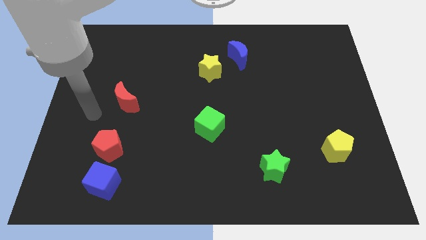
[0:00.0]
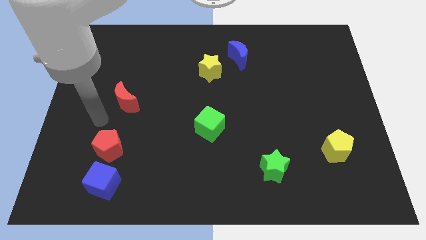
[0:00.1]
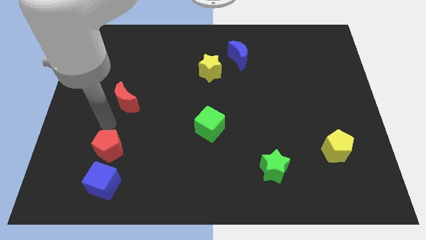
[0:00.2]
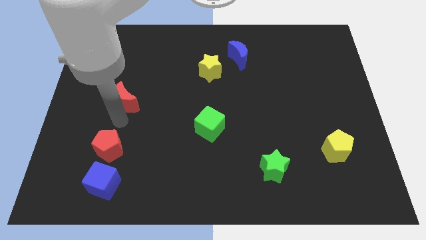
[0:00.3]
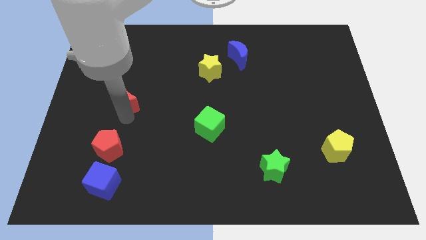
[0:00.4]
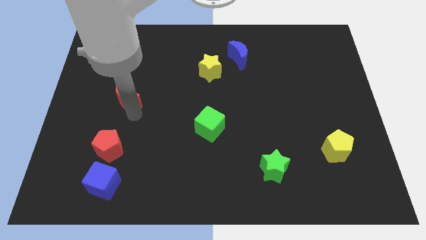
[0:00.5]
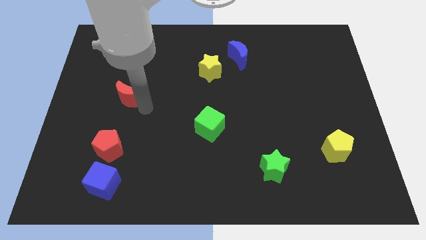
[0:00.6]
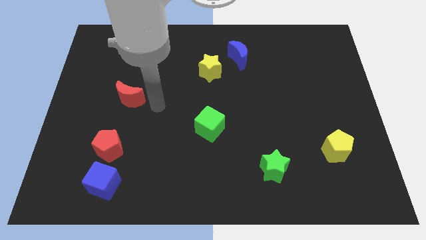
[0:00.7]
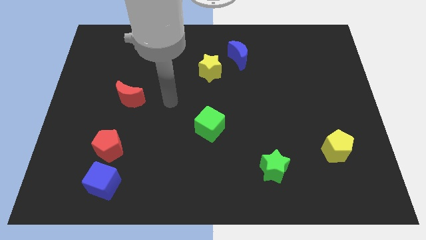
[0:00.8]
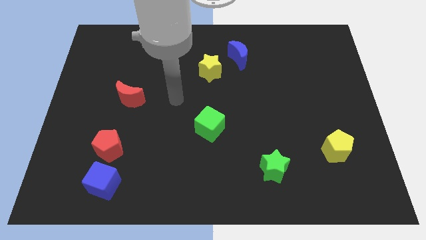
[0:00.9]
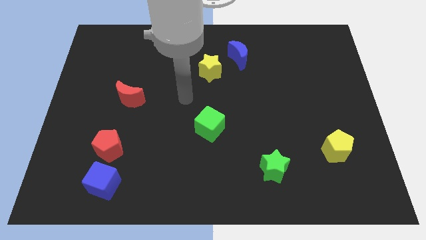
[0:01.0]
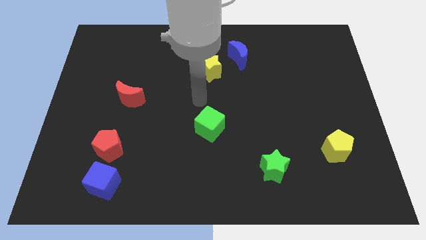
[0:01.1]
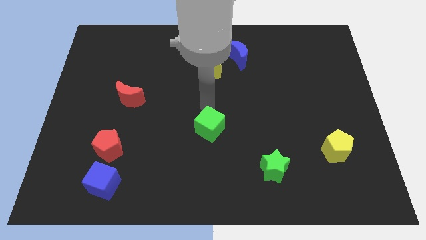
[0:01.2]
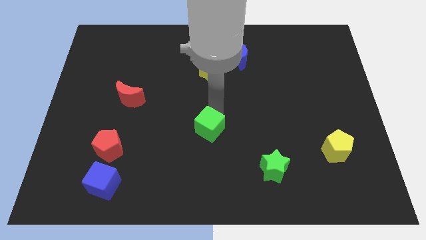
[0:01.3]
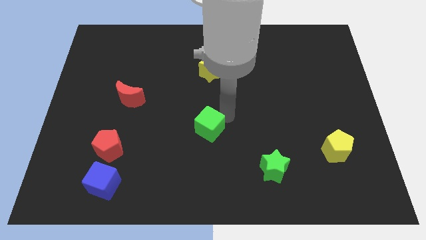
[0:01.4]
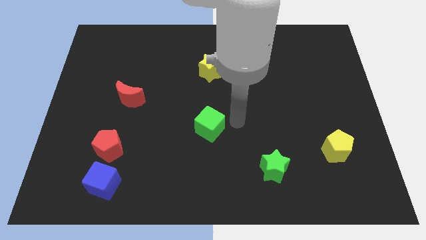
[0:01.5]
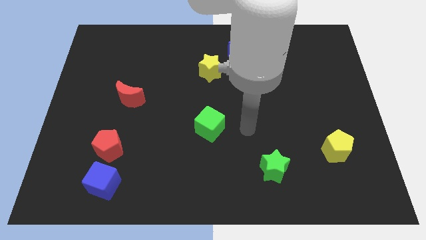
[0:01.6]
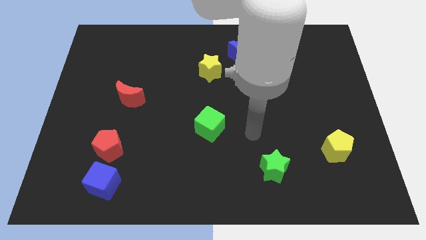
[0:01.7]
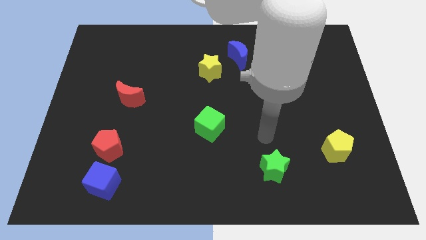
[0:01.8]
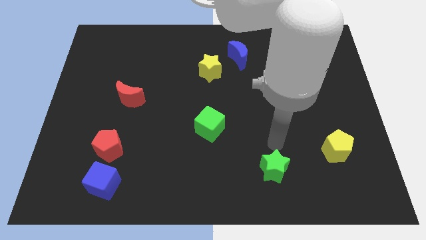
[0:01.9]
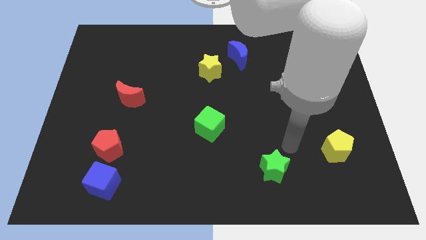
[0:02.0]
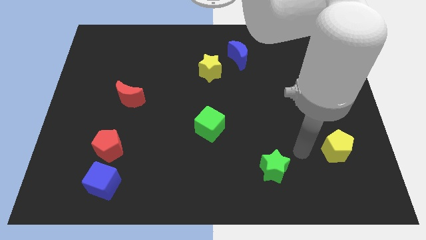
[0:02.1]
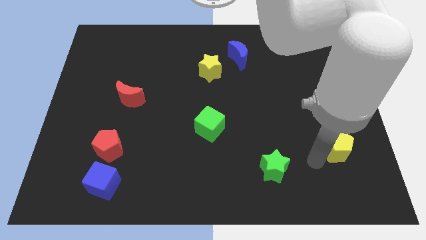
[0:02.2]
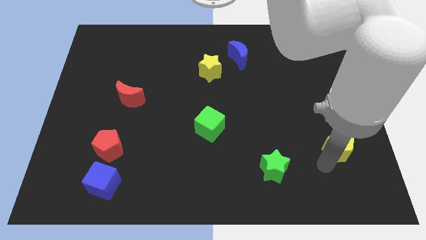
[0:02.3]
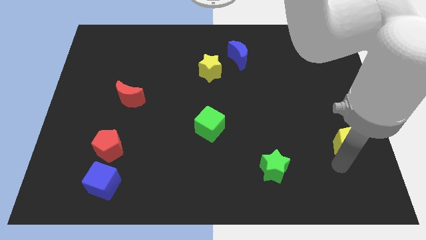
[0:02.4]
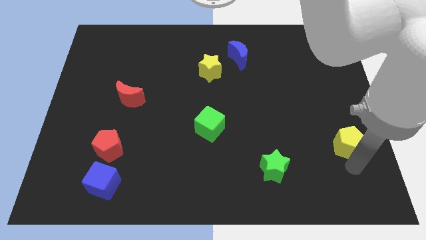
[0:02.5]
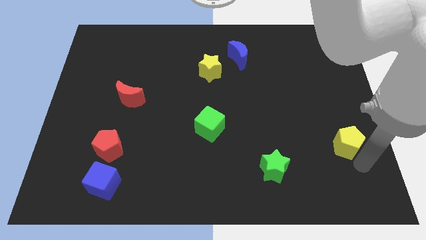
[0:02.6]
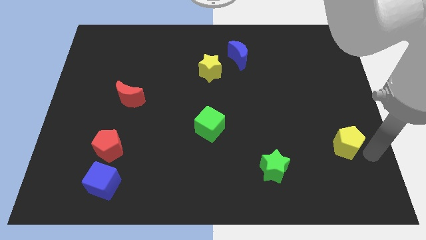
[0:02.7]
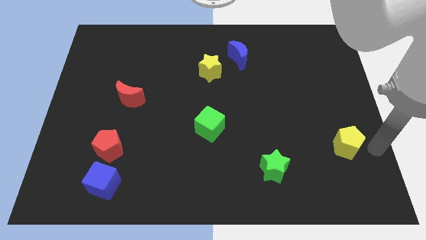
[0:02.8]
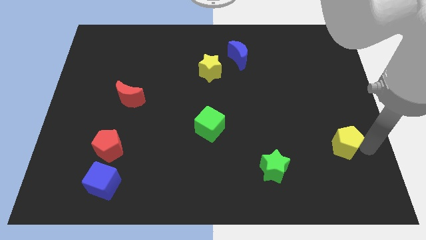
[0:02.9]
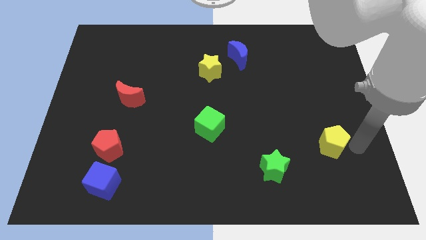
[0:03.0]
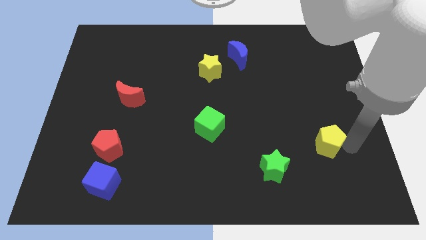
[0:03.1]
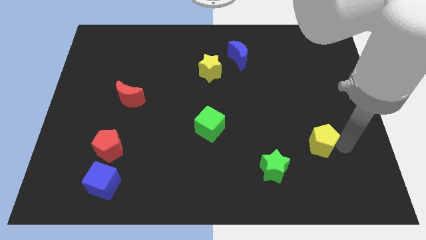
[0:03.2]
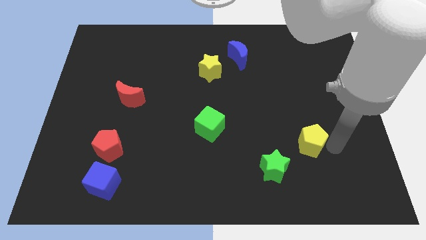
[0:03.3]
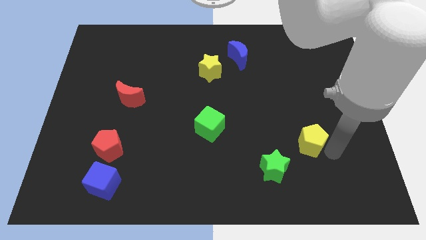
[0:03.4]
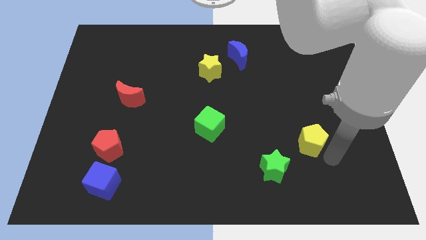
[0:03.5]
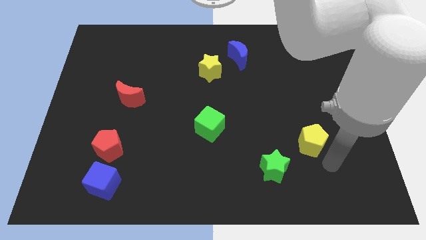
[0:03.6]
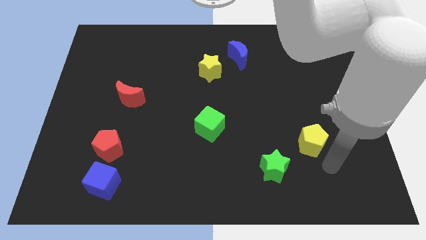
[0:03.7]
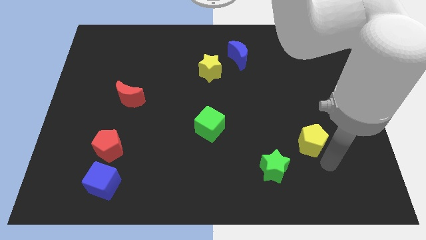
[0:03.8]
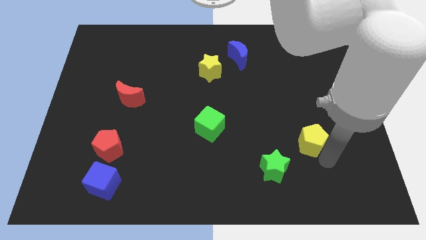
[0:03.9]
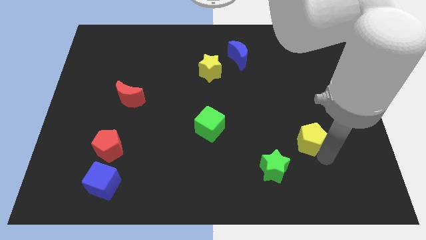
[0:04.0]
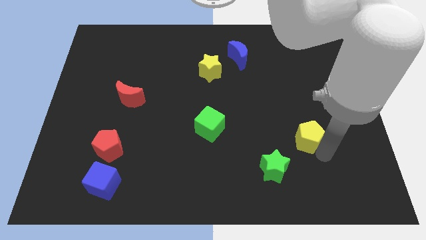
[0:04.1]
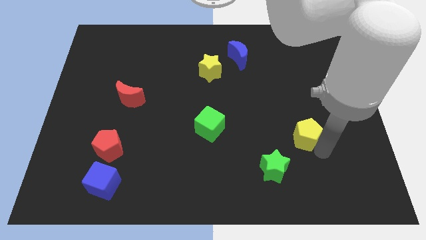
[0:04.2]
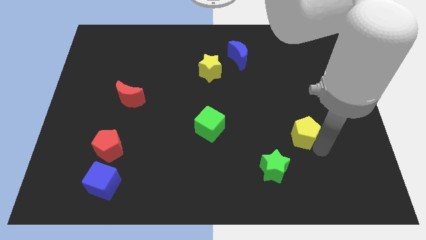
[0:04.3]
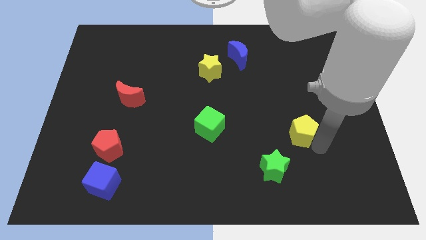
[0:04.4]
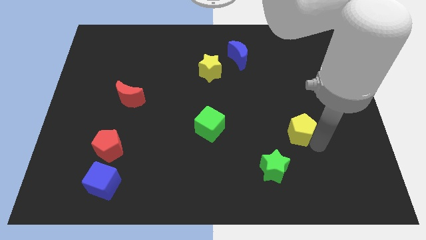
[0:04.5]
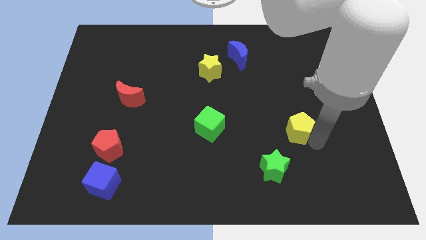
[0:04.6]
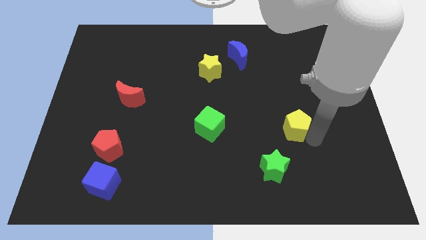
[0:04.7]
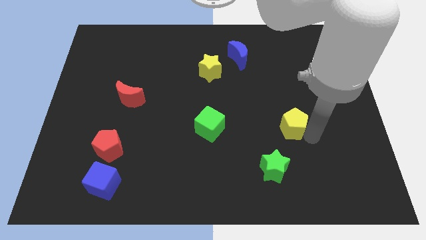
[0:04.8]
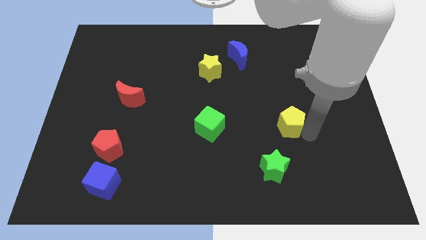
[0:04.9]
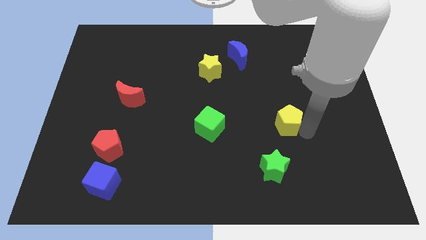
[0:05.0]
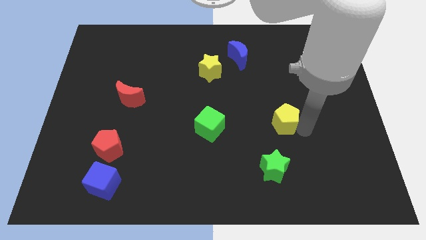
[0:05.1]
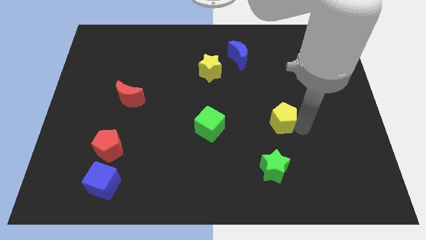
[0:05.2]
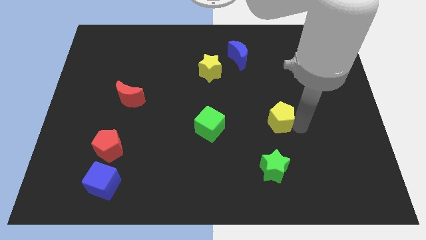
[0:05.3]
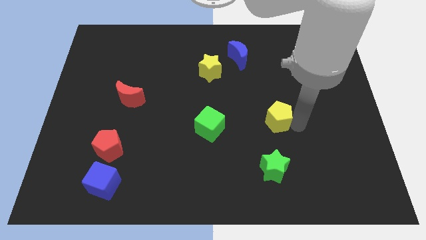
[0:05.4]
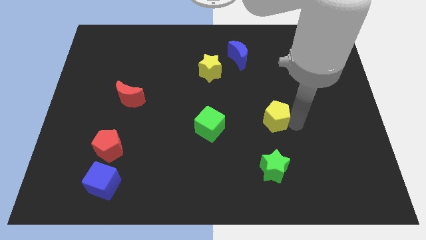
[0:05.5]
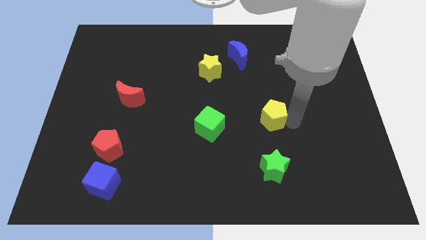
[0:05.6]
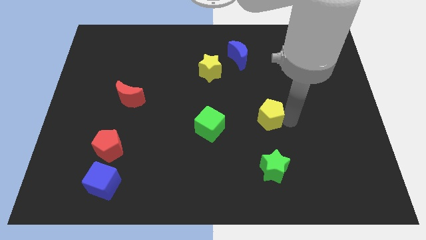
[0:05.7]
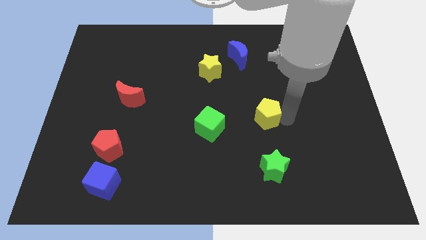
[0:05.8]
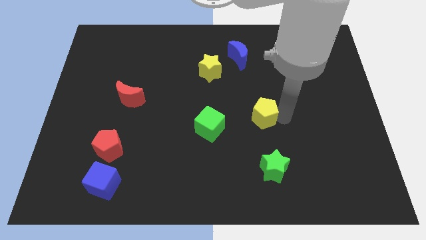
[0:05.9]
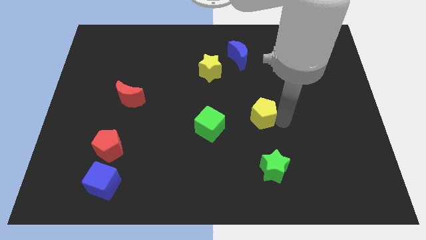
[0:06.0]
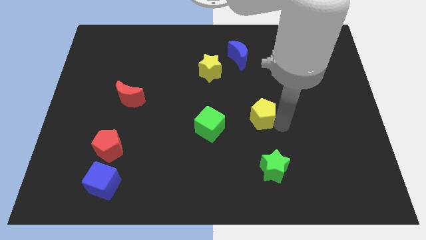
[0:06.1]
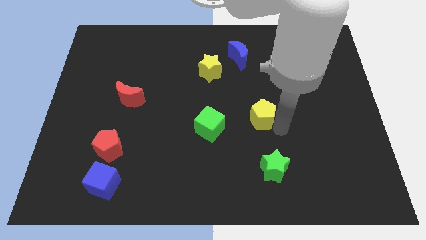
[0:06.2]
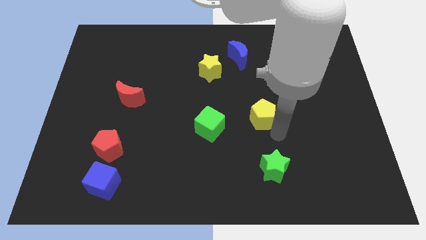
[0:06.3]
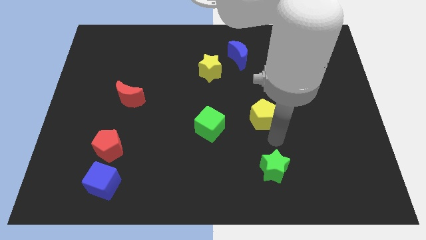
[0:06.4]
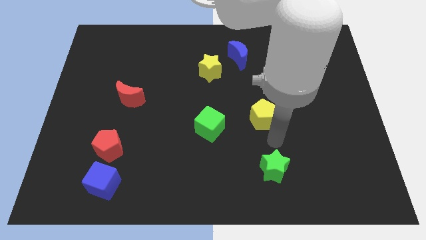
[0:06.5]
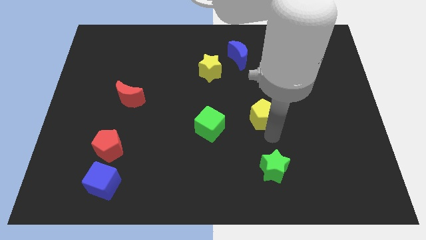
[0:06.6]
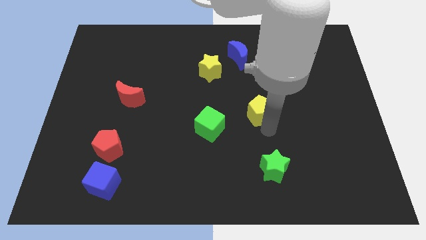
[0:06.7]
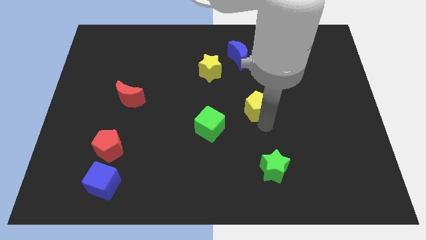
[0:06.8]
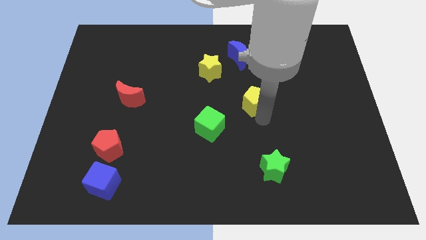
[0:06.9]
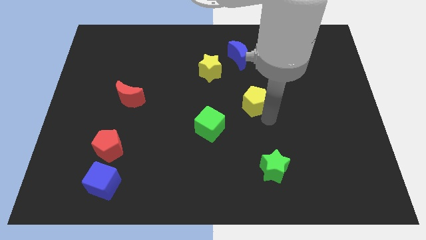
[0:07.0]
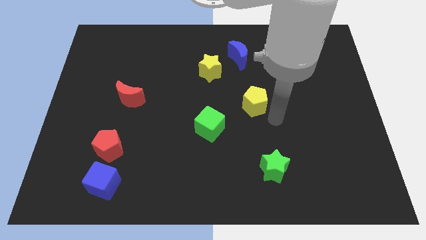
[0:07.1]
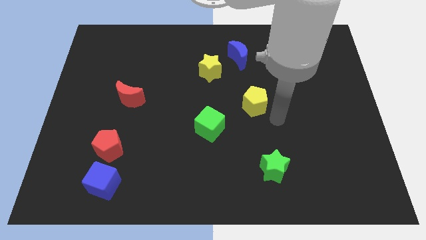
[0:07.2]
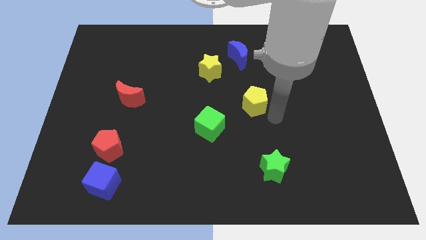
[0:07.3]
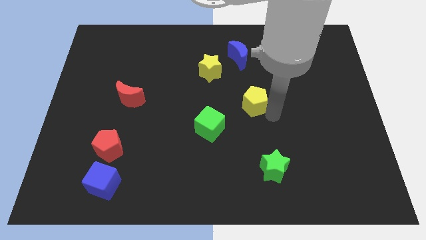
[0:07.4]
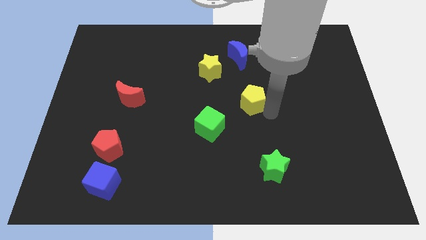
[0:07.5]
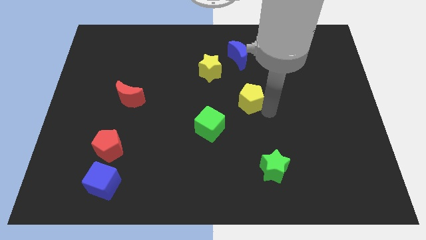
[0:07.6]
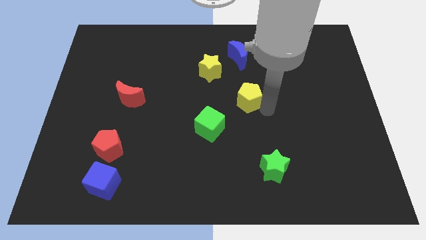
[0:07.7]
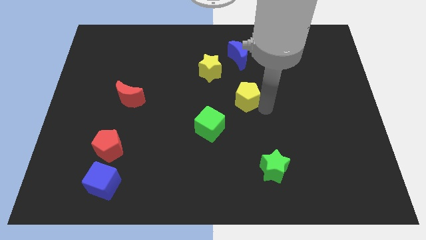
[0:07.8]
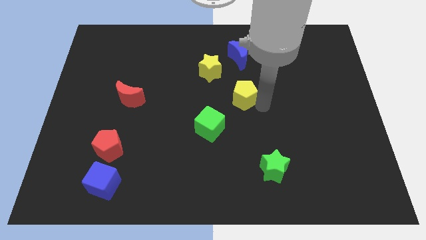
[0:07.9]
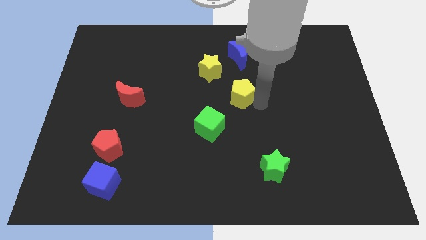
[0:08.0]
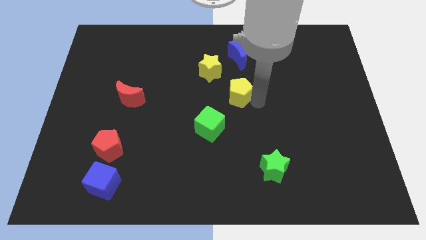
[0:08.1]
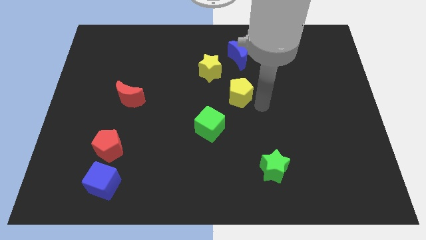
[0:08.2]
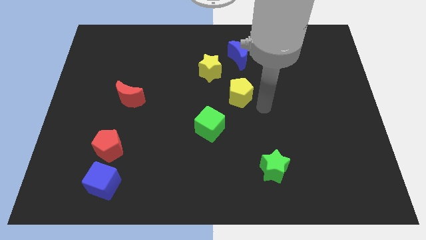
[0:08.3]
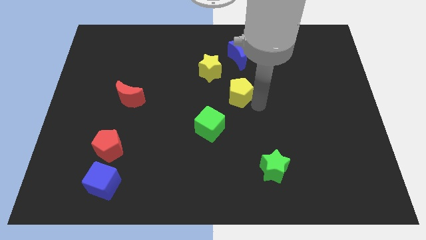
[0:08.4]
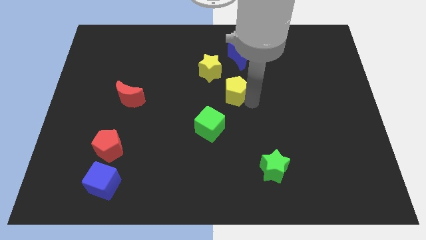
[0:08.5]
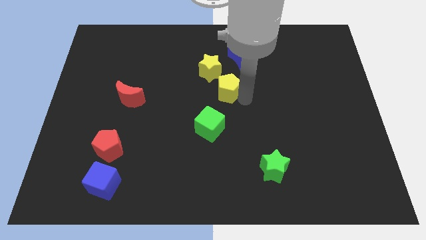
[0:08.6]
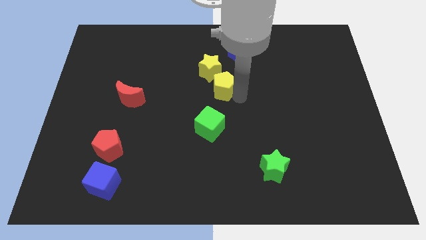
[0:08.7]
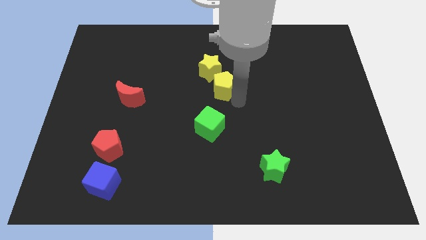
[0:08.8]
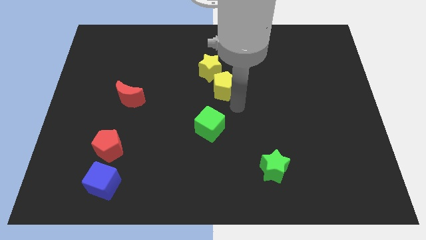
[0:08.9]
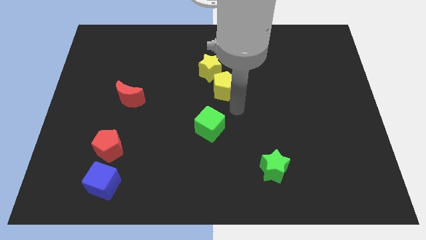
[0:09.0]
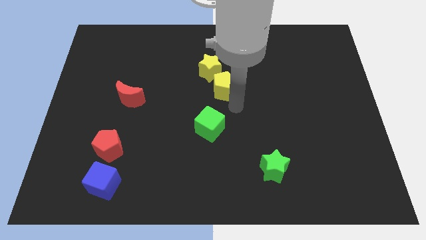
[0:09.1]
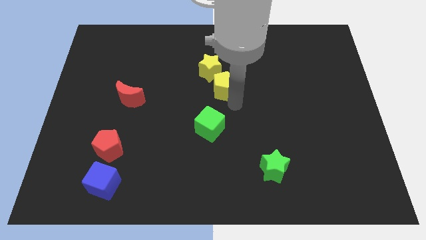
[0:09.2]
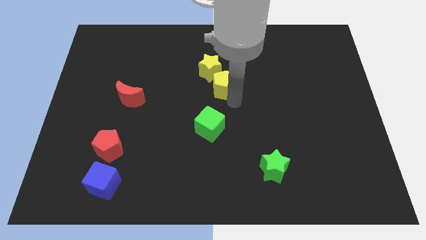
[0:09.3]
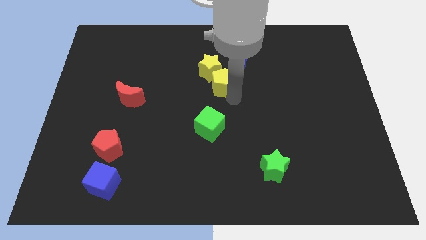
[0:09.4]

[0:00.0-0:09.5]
slide the yellow pentagon next to the yellow star
